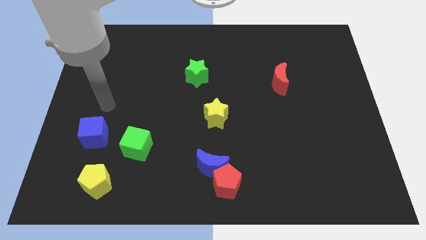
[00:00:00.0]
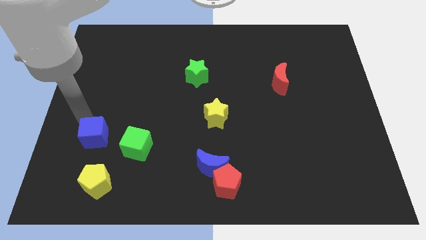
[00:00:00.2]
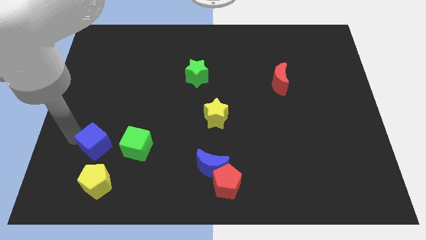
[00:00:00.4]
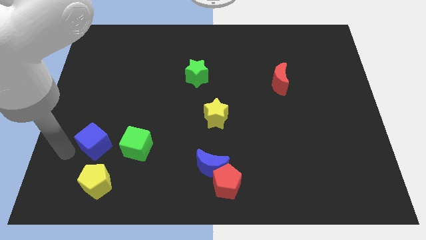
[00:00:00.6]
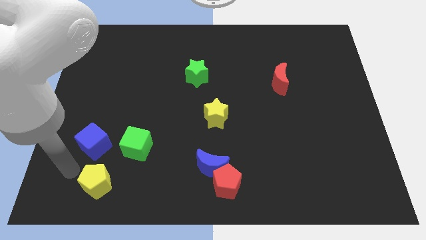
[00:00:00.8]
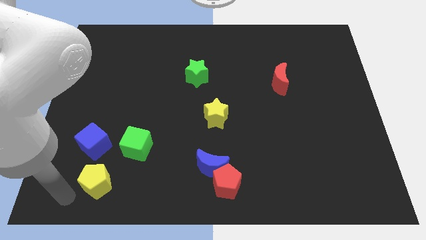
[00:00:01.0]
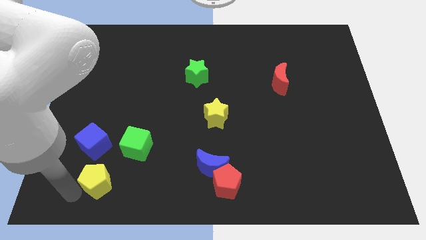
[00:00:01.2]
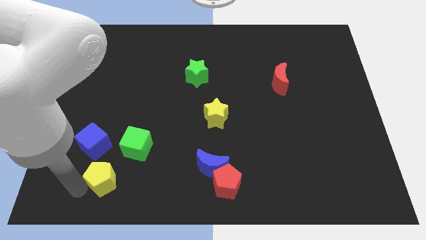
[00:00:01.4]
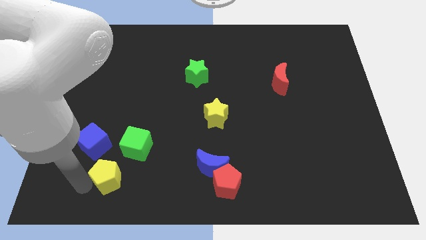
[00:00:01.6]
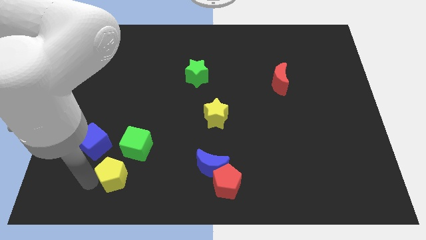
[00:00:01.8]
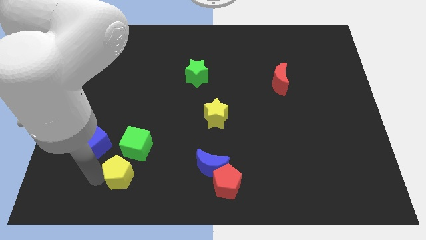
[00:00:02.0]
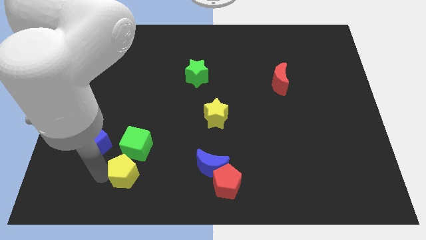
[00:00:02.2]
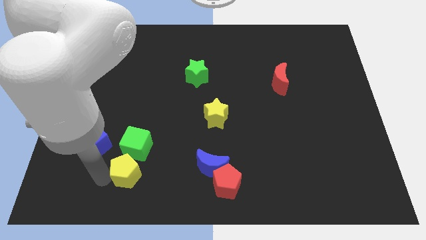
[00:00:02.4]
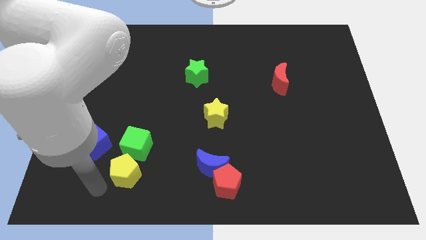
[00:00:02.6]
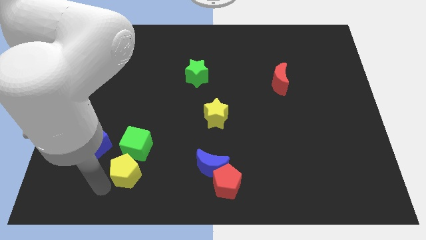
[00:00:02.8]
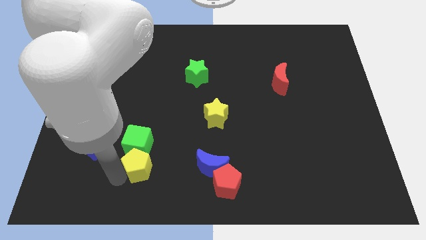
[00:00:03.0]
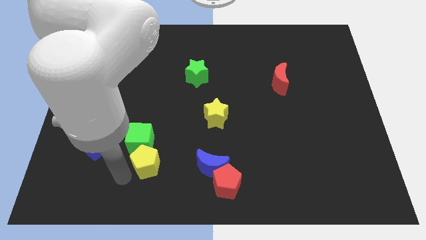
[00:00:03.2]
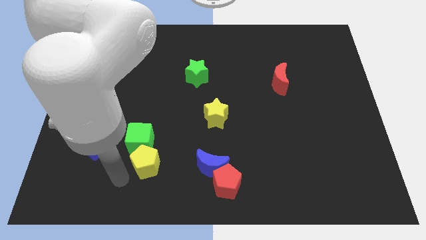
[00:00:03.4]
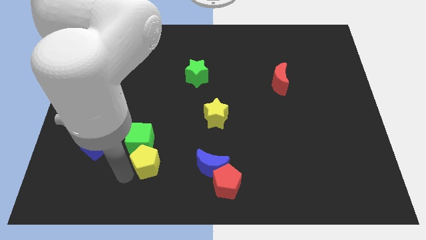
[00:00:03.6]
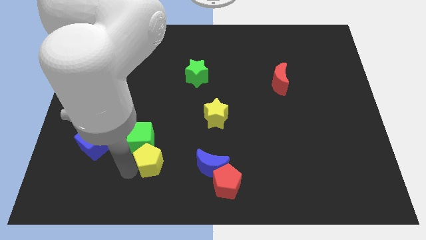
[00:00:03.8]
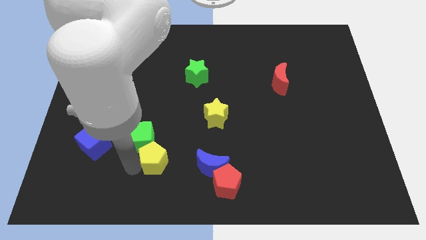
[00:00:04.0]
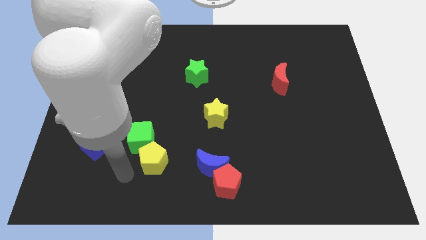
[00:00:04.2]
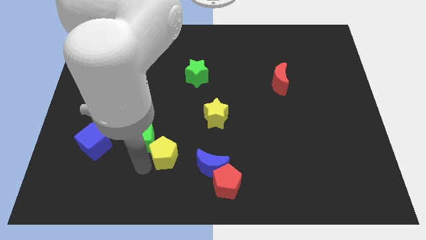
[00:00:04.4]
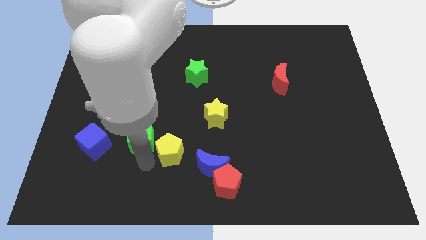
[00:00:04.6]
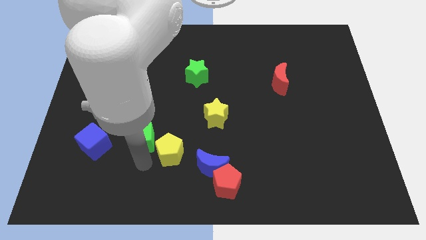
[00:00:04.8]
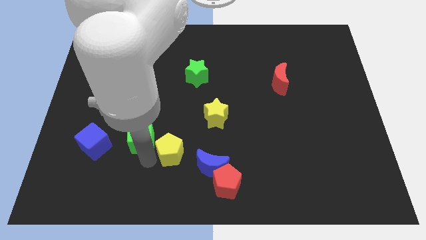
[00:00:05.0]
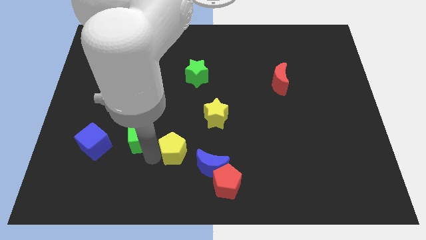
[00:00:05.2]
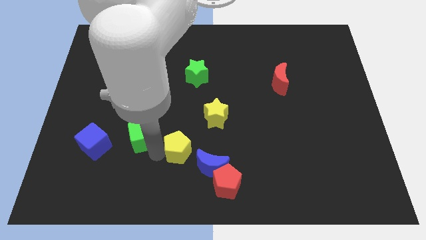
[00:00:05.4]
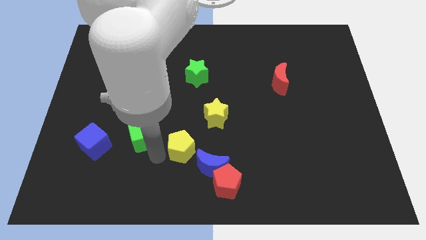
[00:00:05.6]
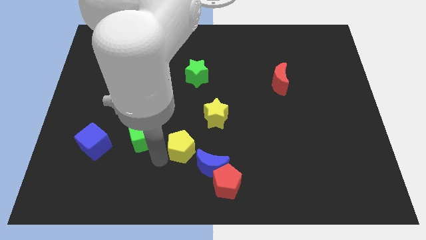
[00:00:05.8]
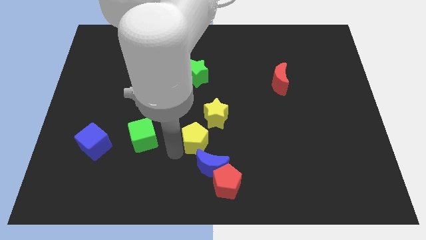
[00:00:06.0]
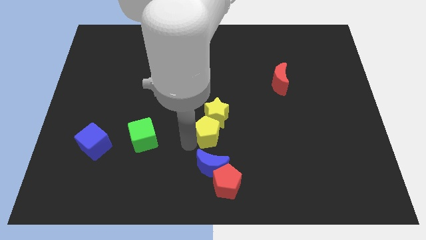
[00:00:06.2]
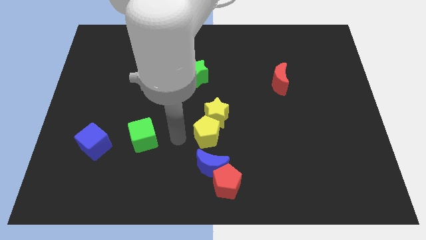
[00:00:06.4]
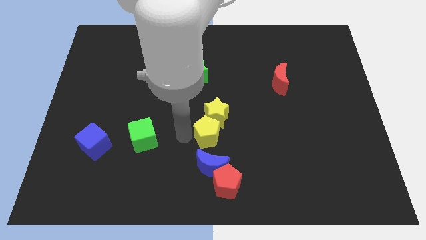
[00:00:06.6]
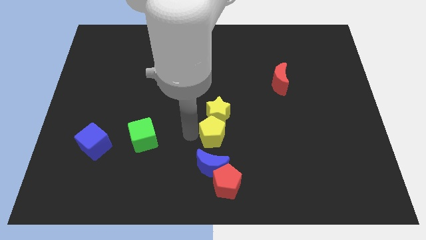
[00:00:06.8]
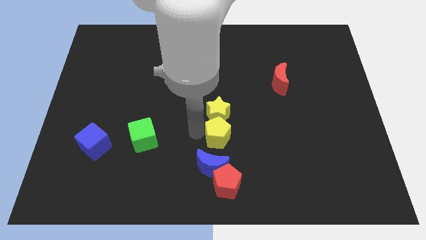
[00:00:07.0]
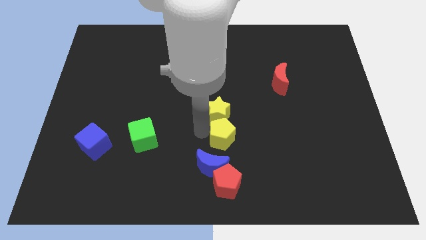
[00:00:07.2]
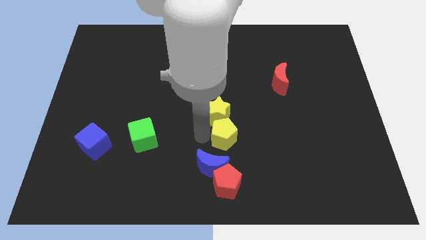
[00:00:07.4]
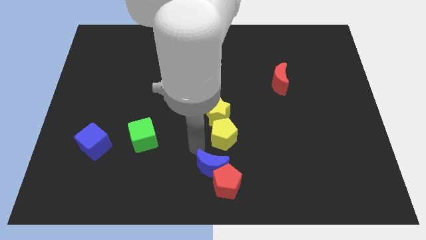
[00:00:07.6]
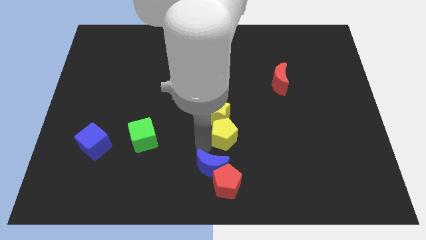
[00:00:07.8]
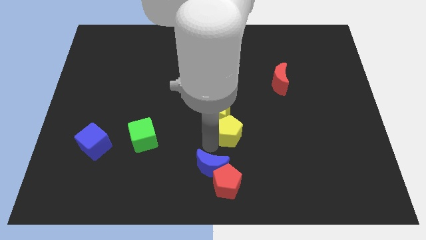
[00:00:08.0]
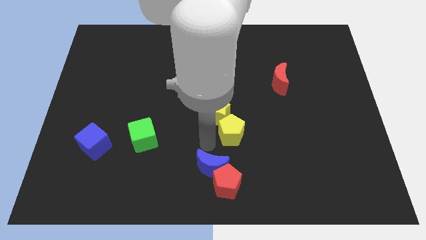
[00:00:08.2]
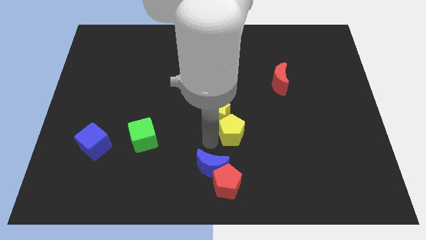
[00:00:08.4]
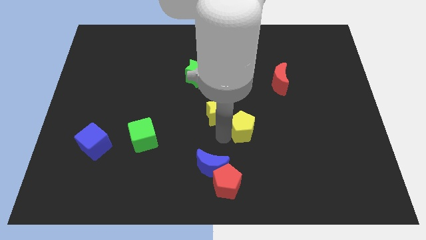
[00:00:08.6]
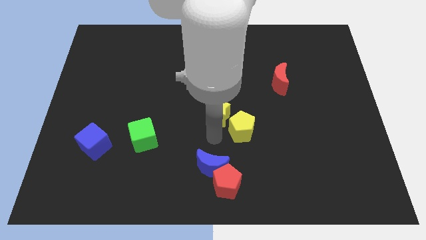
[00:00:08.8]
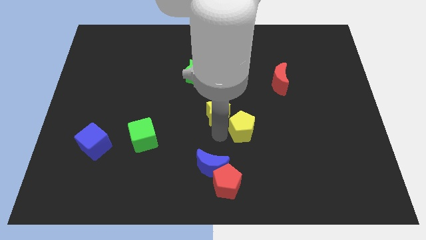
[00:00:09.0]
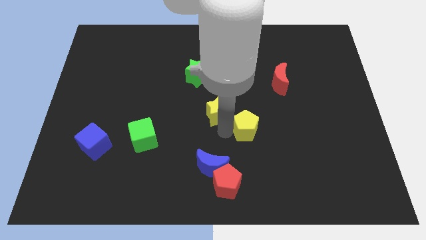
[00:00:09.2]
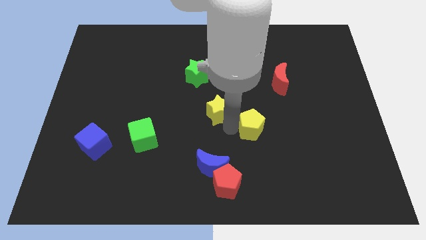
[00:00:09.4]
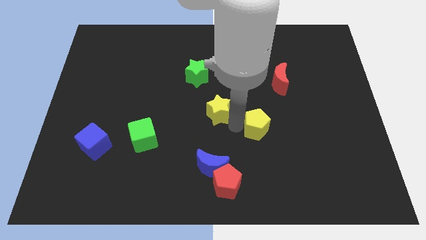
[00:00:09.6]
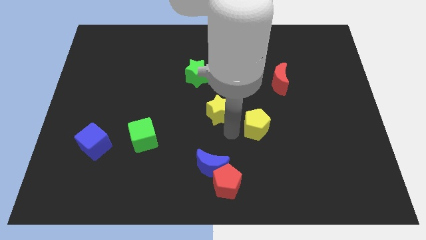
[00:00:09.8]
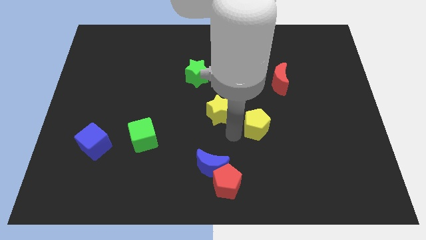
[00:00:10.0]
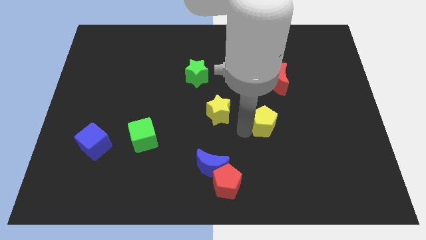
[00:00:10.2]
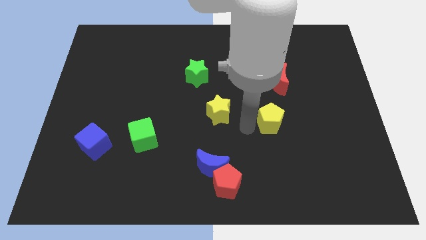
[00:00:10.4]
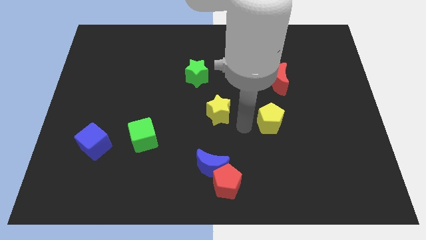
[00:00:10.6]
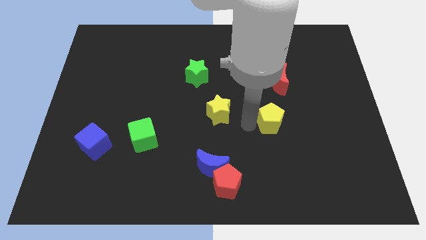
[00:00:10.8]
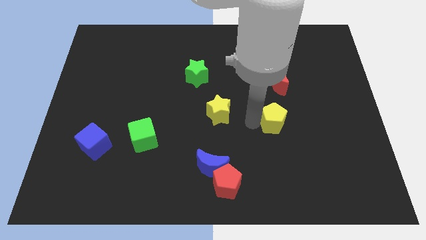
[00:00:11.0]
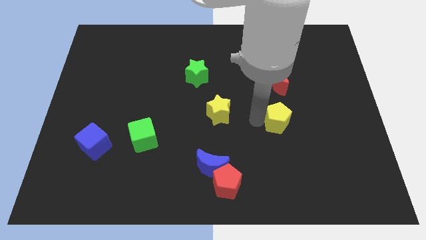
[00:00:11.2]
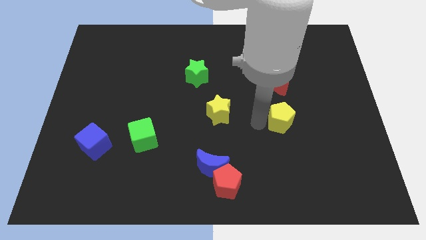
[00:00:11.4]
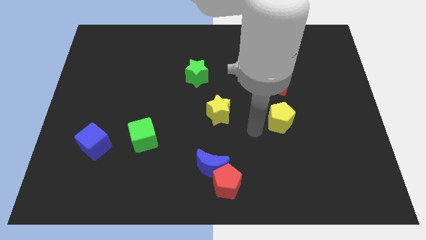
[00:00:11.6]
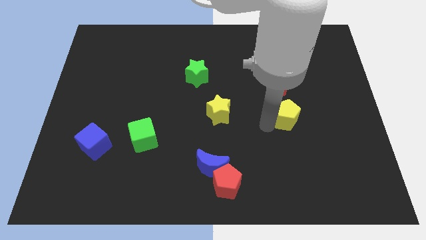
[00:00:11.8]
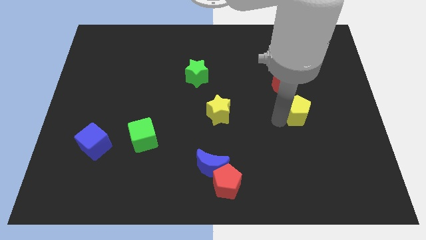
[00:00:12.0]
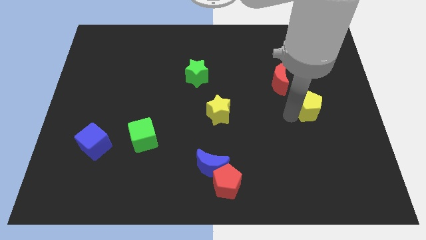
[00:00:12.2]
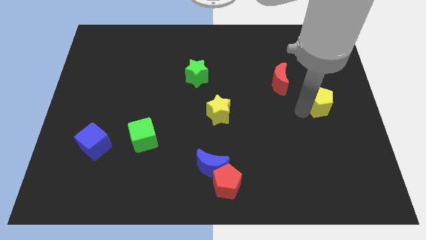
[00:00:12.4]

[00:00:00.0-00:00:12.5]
slide the yellow pentagon to the right side
